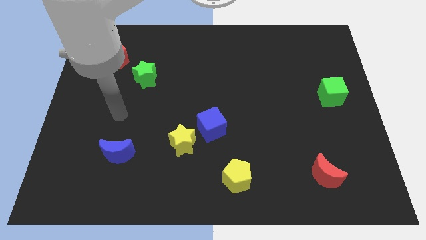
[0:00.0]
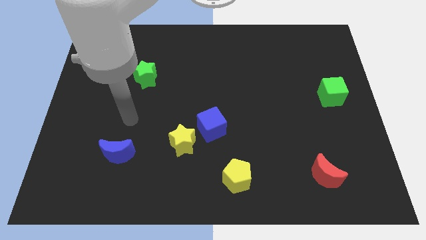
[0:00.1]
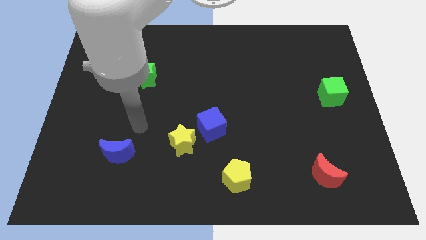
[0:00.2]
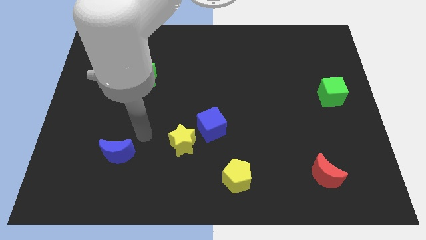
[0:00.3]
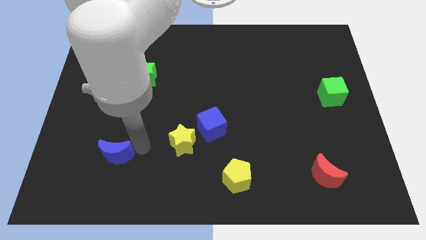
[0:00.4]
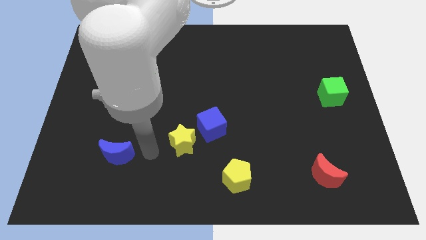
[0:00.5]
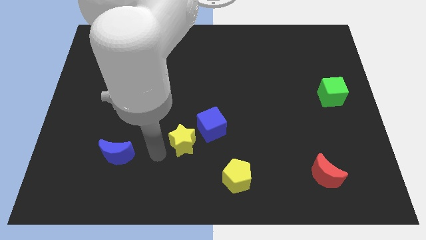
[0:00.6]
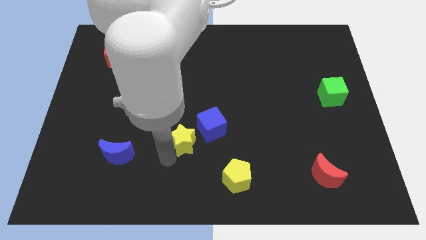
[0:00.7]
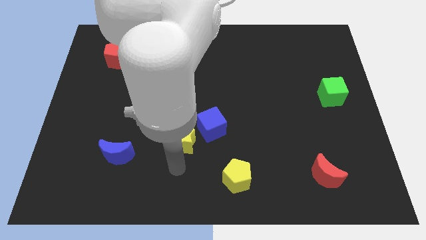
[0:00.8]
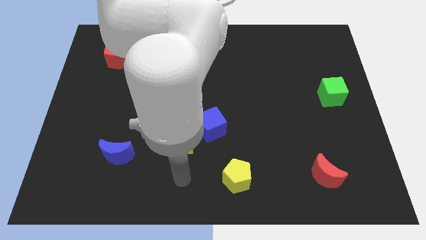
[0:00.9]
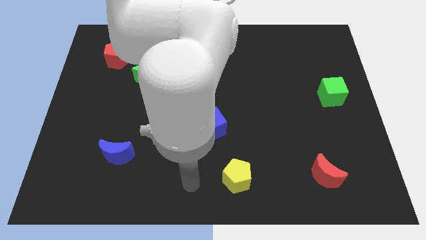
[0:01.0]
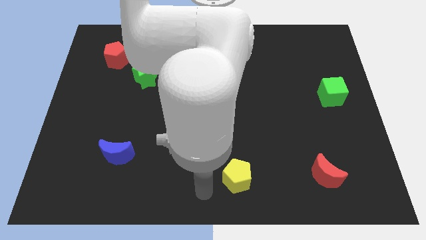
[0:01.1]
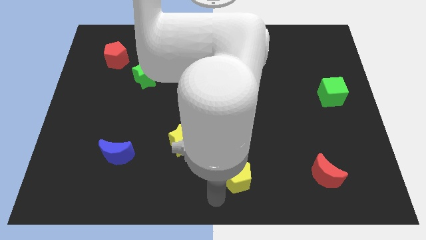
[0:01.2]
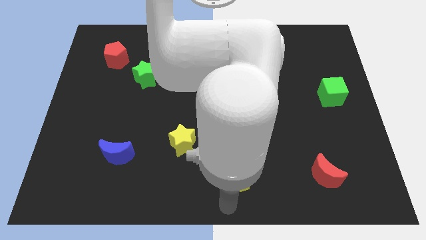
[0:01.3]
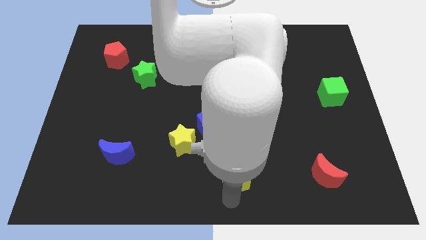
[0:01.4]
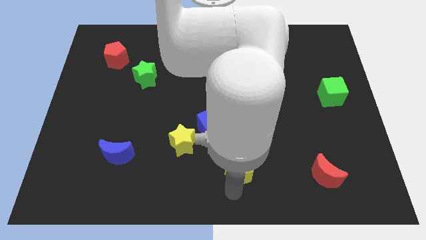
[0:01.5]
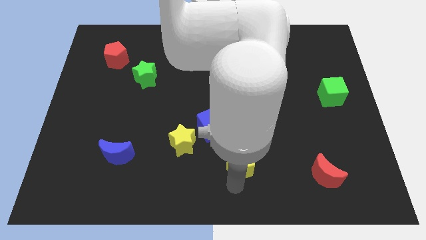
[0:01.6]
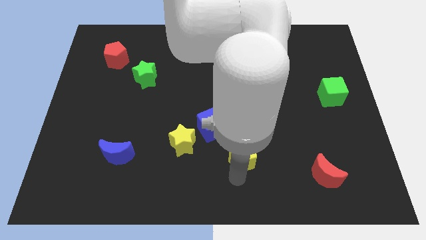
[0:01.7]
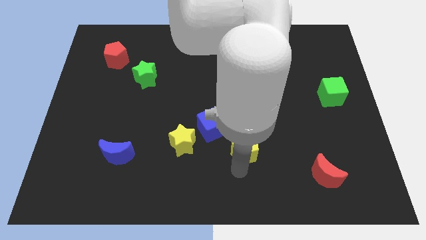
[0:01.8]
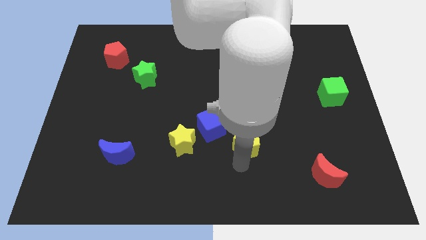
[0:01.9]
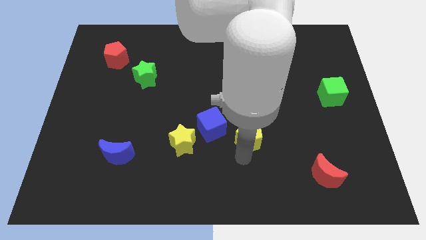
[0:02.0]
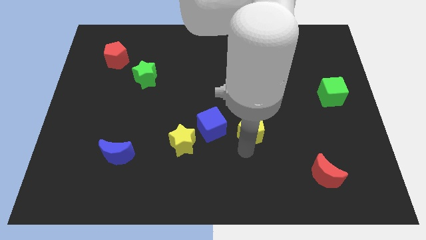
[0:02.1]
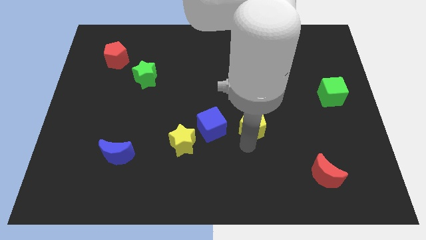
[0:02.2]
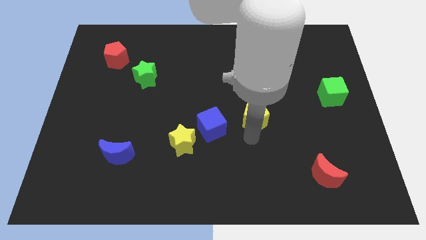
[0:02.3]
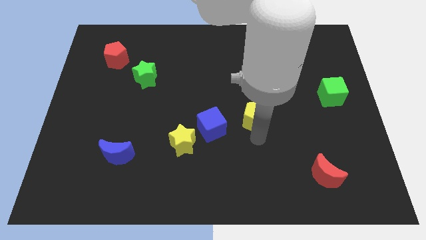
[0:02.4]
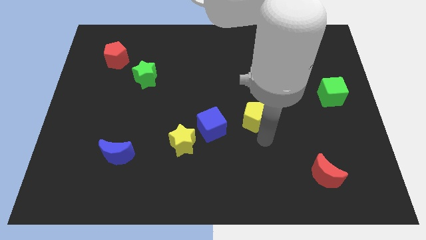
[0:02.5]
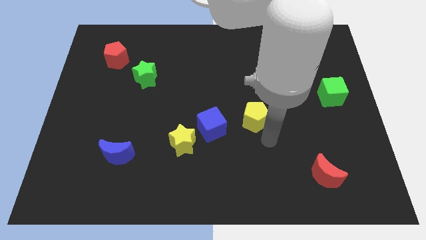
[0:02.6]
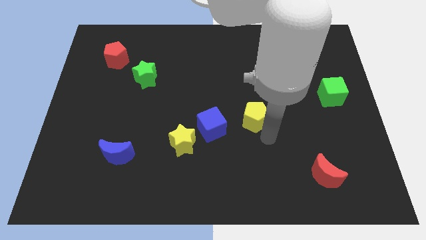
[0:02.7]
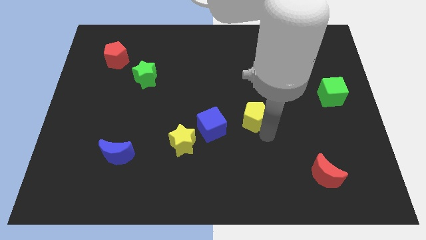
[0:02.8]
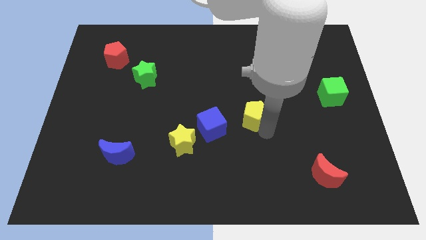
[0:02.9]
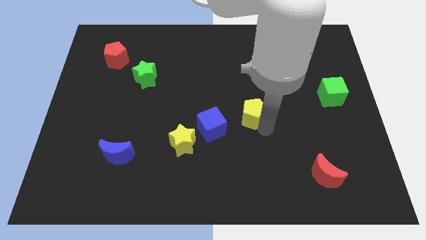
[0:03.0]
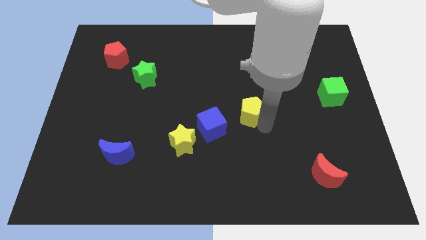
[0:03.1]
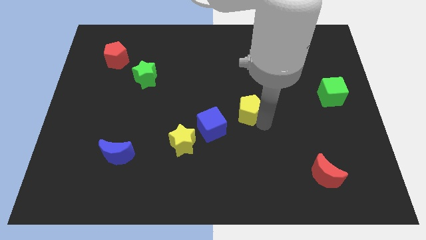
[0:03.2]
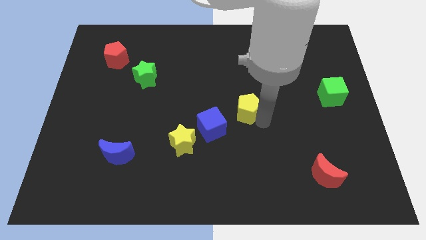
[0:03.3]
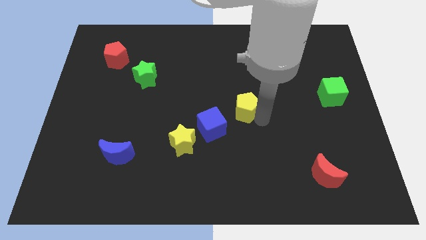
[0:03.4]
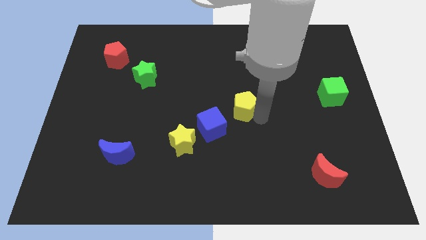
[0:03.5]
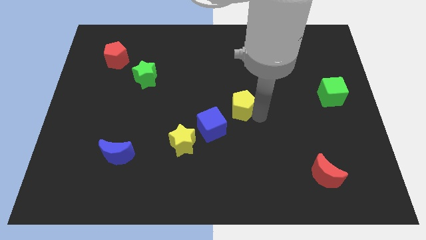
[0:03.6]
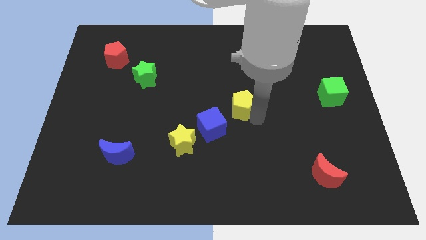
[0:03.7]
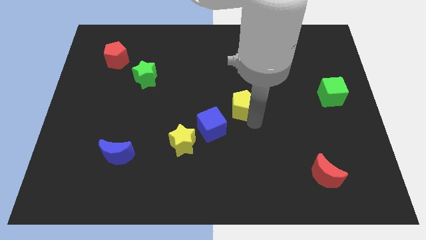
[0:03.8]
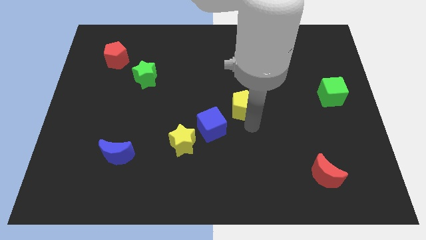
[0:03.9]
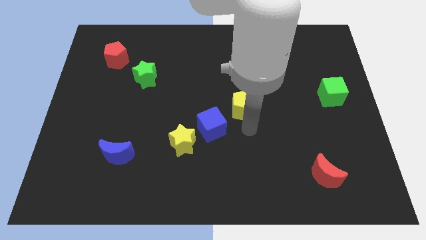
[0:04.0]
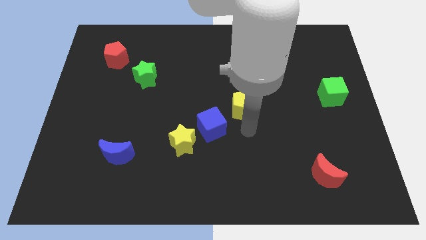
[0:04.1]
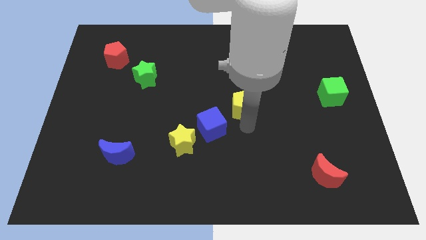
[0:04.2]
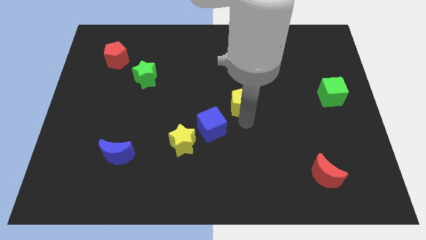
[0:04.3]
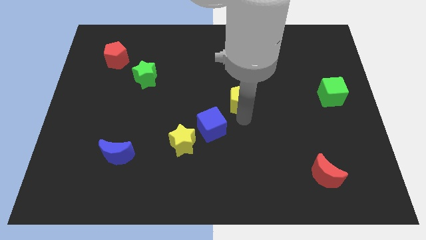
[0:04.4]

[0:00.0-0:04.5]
slide the yellow pentagon upwards

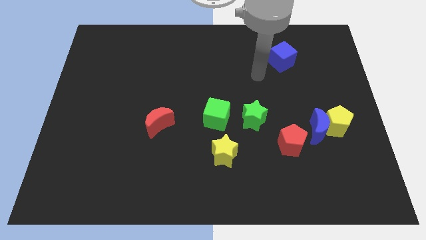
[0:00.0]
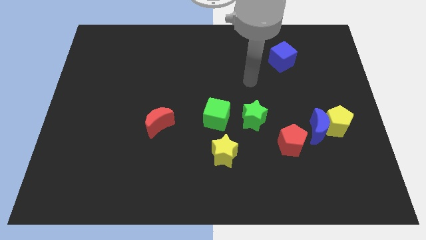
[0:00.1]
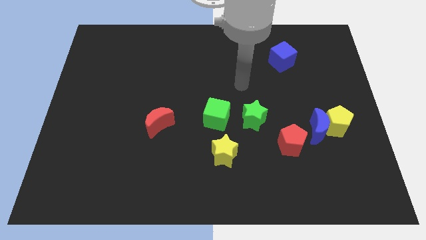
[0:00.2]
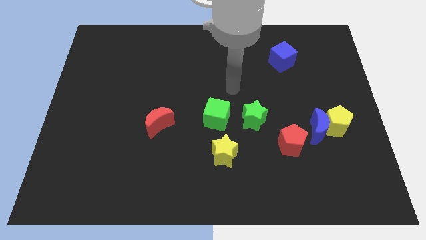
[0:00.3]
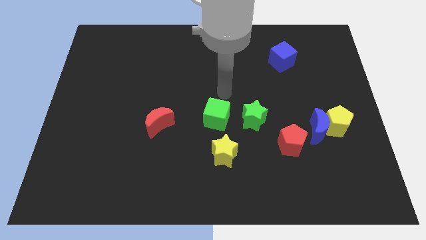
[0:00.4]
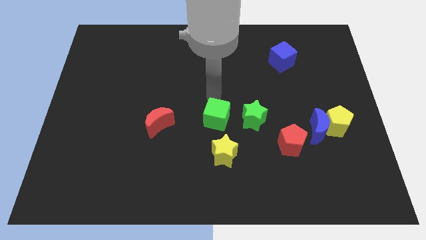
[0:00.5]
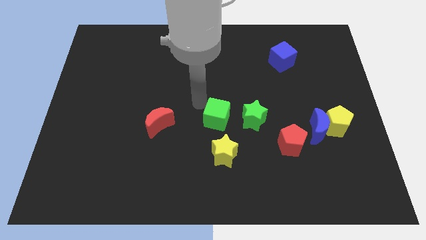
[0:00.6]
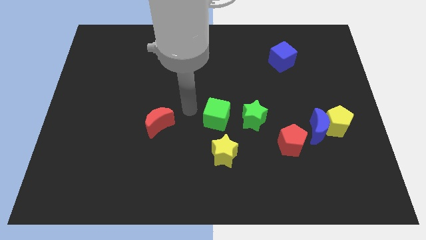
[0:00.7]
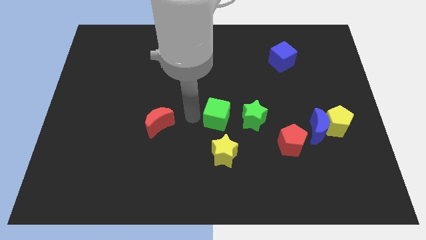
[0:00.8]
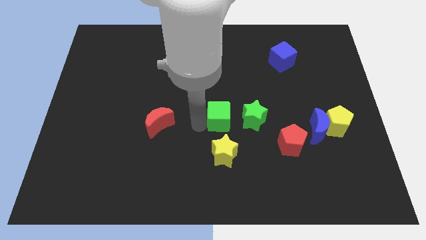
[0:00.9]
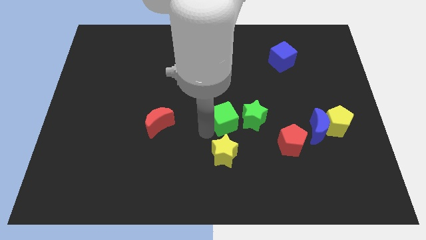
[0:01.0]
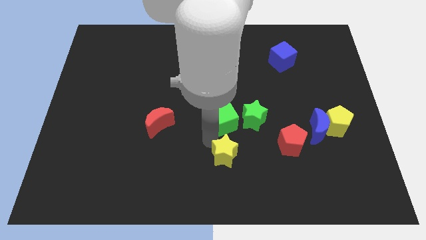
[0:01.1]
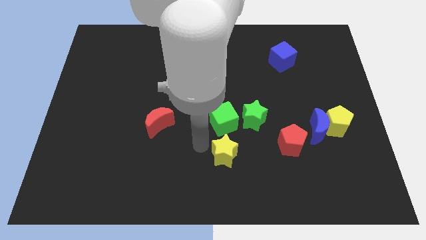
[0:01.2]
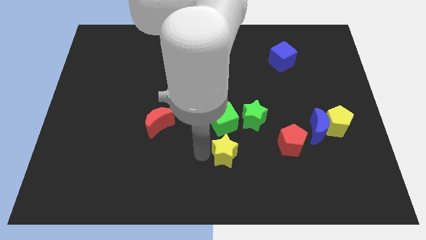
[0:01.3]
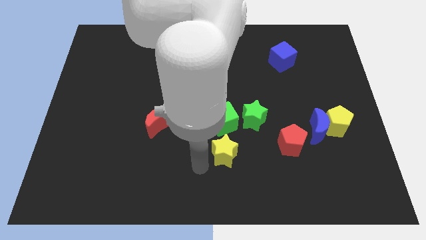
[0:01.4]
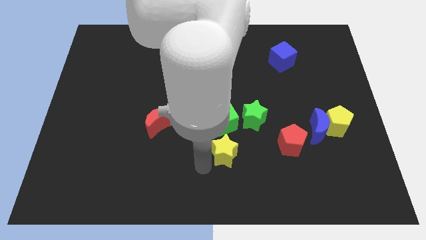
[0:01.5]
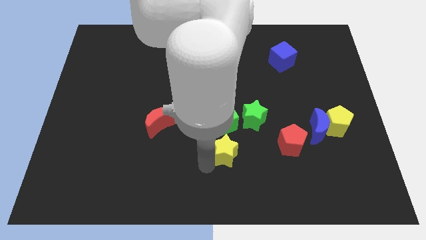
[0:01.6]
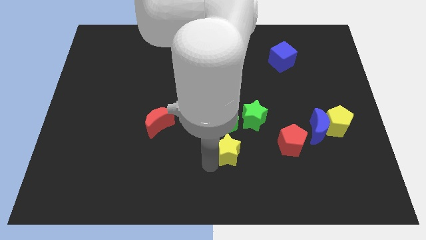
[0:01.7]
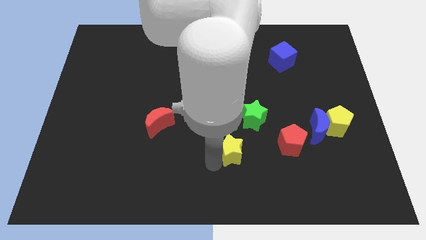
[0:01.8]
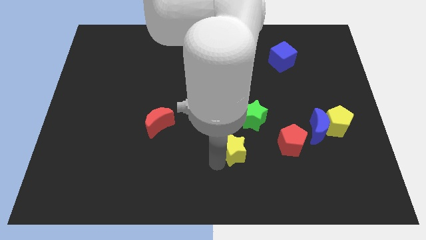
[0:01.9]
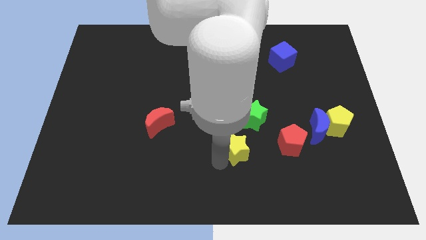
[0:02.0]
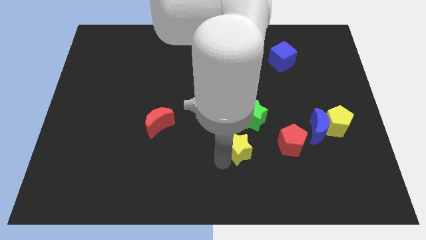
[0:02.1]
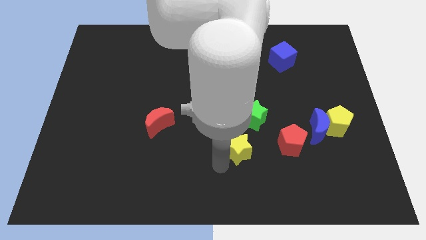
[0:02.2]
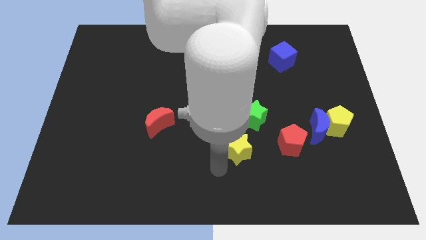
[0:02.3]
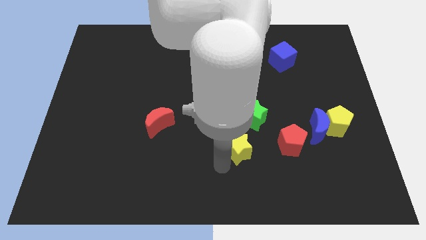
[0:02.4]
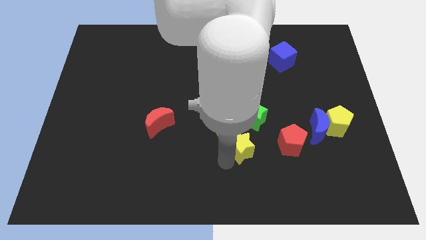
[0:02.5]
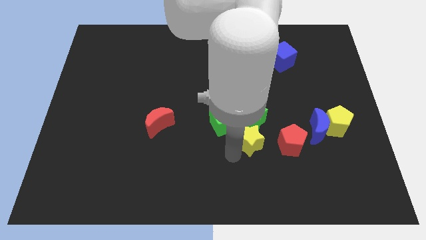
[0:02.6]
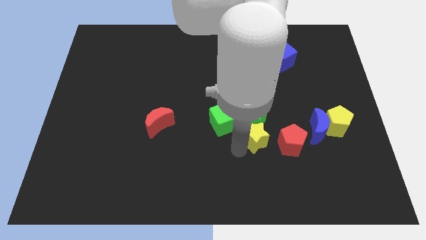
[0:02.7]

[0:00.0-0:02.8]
push the yellow star a little bit diagonally upwards and to the right

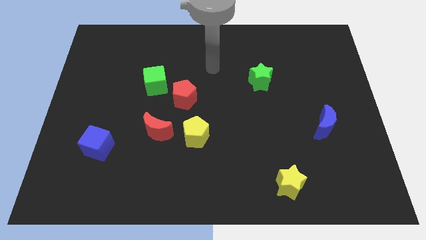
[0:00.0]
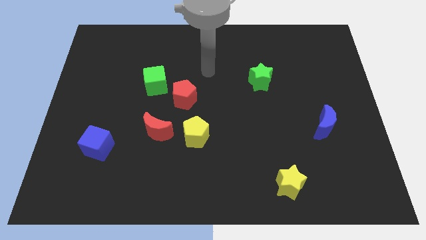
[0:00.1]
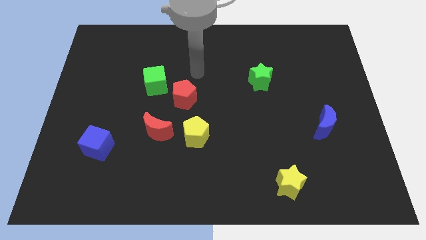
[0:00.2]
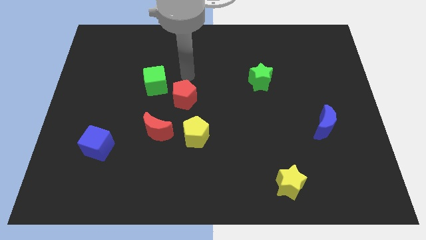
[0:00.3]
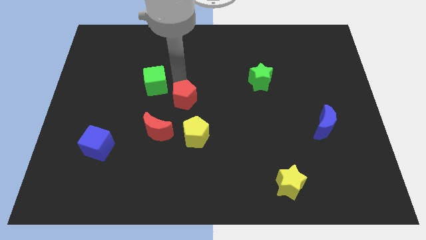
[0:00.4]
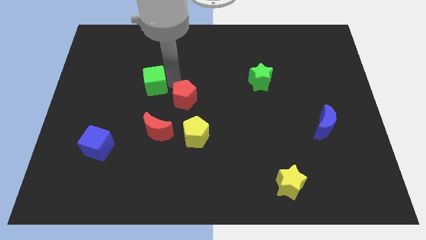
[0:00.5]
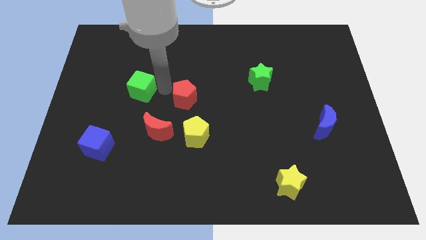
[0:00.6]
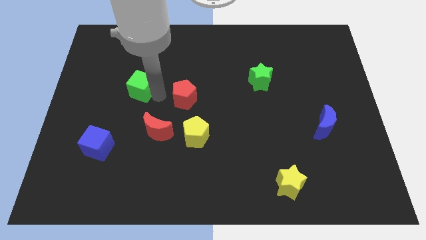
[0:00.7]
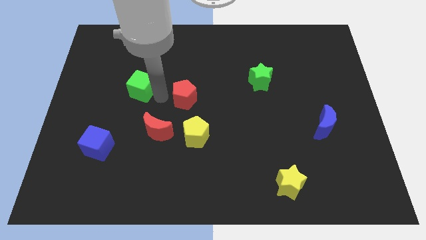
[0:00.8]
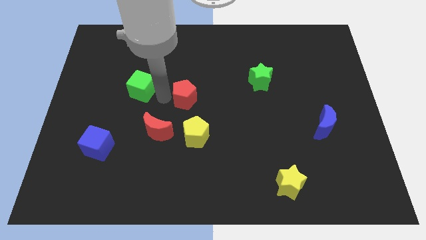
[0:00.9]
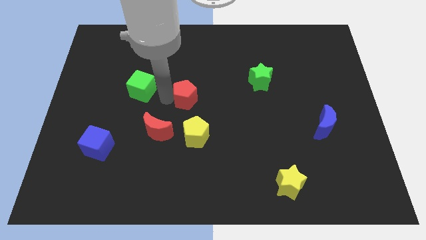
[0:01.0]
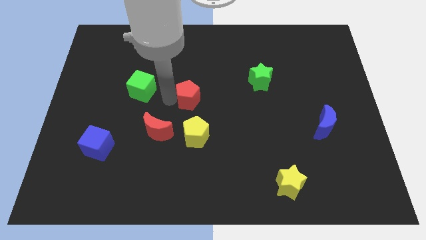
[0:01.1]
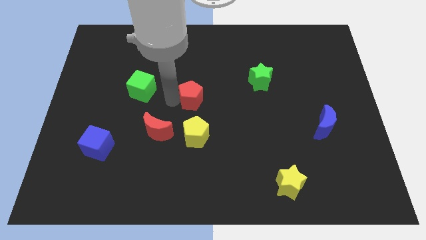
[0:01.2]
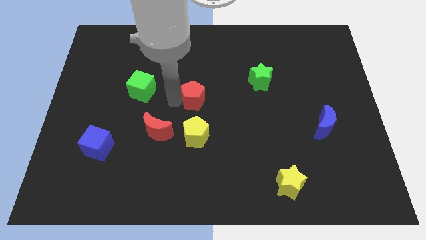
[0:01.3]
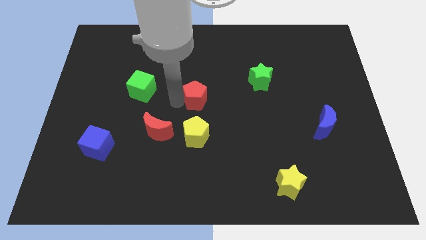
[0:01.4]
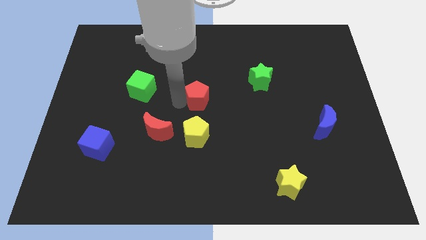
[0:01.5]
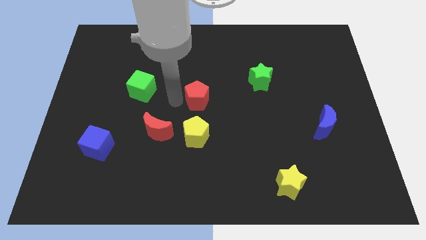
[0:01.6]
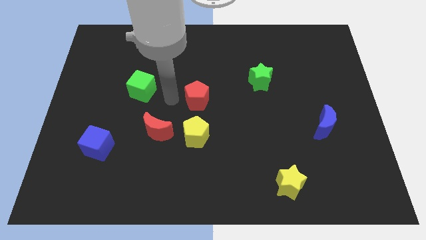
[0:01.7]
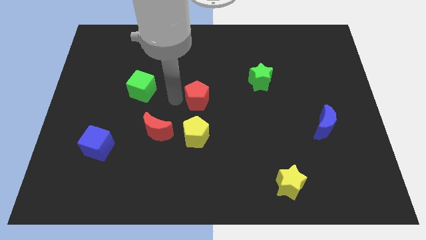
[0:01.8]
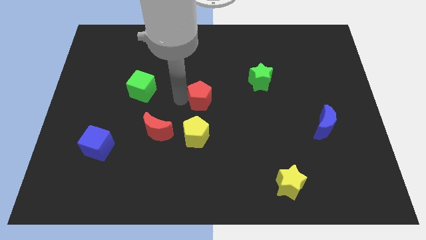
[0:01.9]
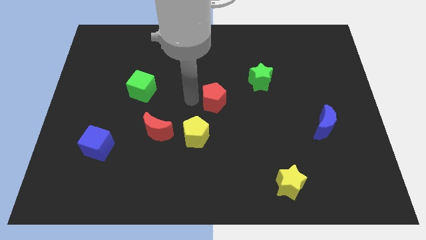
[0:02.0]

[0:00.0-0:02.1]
slide the red pentagon to the right a little bit
